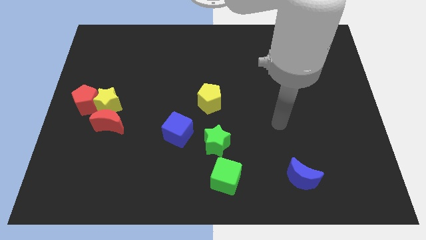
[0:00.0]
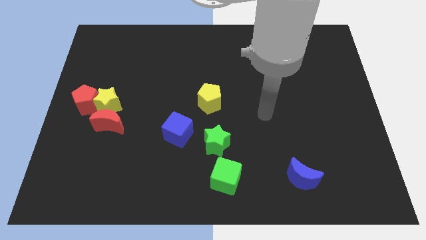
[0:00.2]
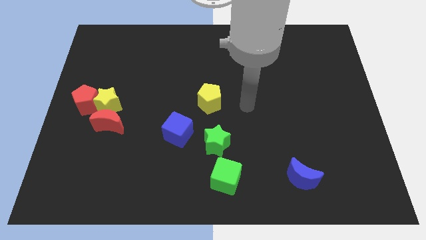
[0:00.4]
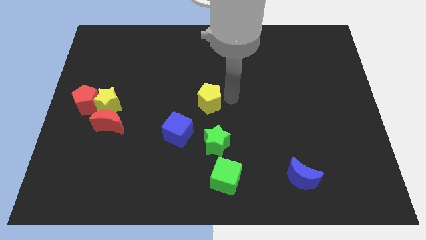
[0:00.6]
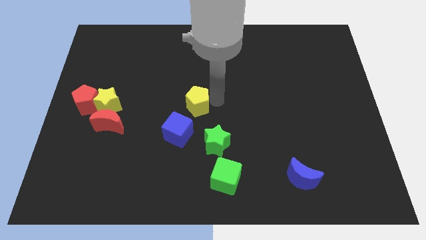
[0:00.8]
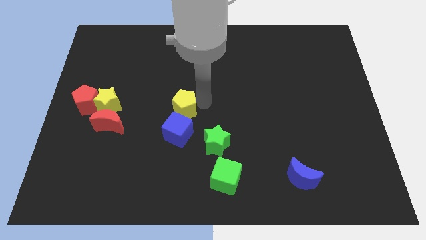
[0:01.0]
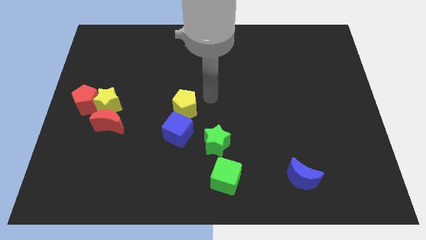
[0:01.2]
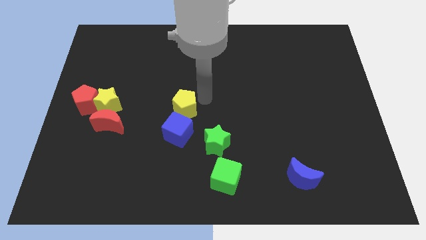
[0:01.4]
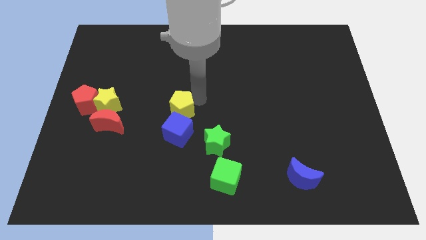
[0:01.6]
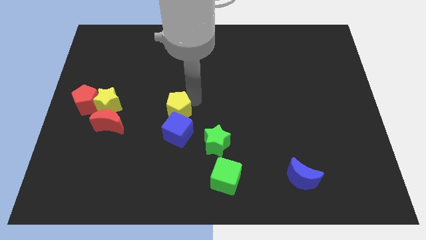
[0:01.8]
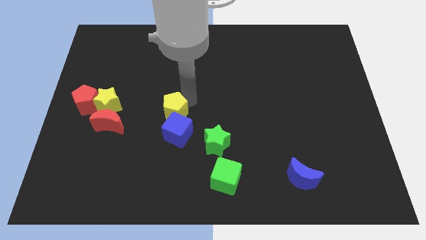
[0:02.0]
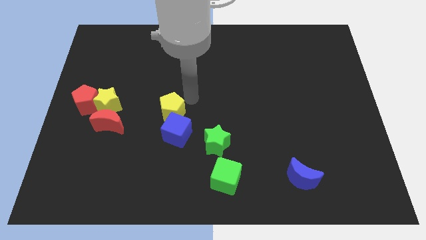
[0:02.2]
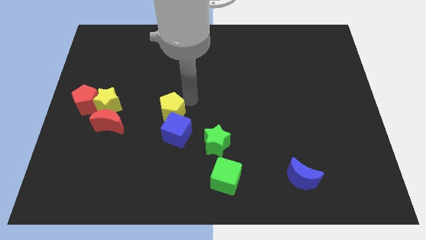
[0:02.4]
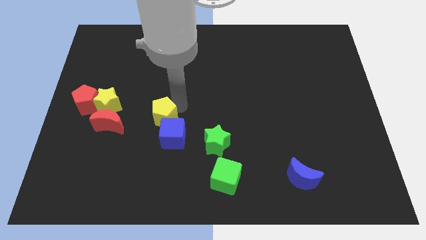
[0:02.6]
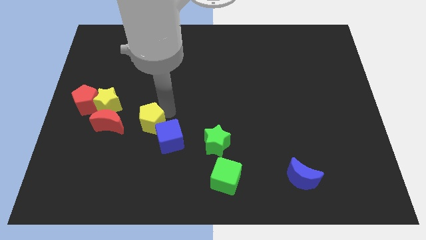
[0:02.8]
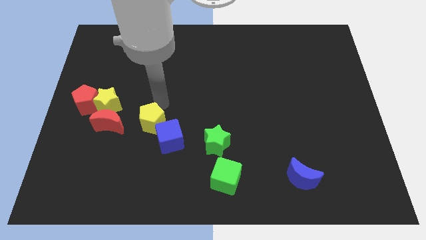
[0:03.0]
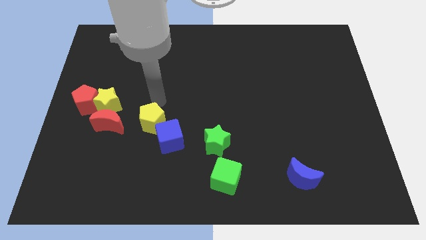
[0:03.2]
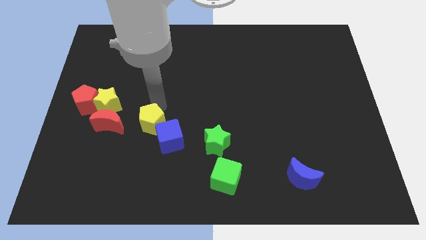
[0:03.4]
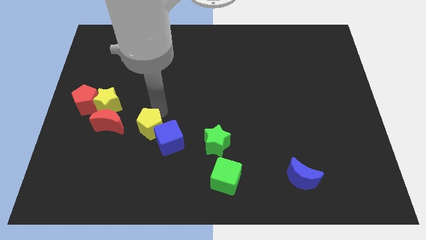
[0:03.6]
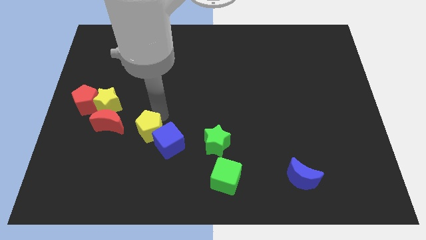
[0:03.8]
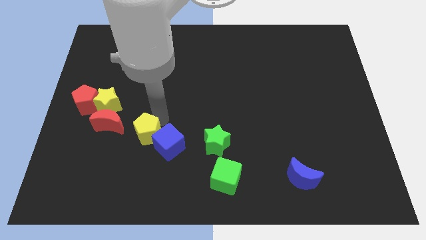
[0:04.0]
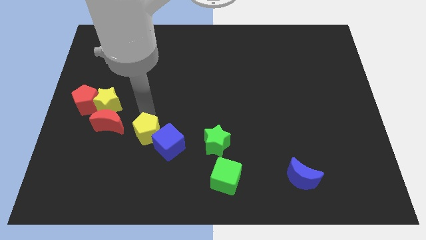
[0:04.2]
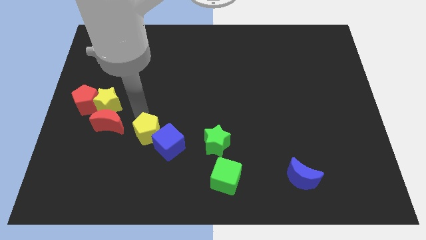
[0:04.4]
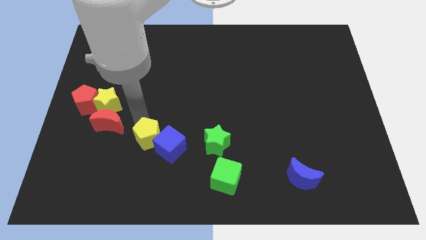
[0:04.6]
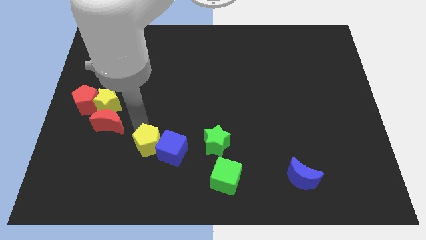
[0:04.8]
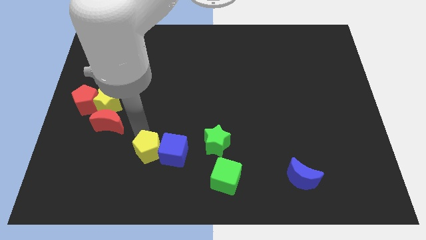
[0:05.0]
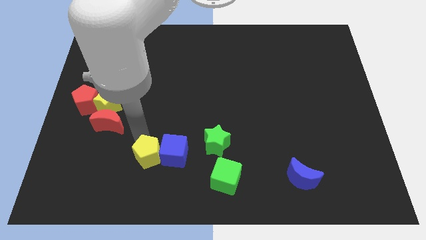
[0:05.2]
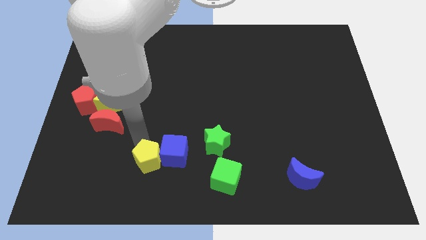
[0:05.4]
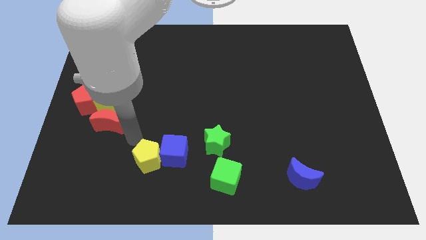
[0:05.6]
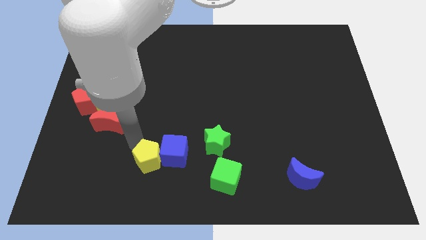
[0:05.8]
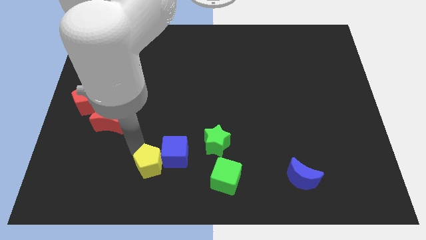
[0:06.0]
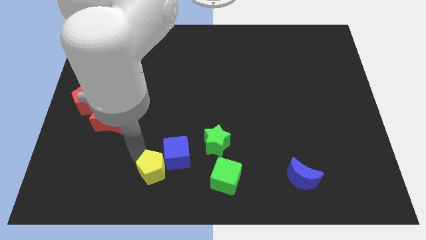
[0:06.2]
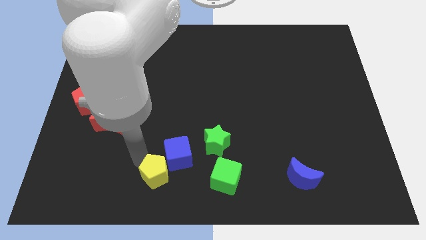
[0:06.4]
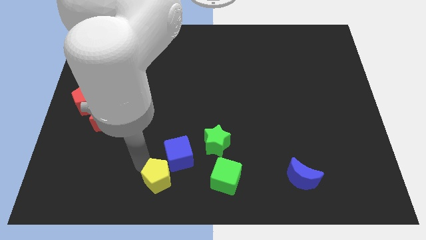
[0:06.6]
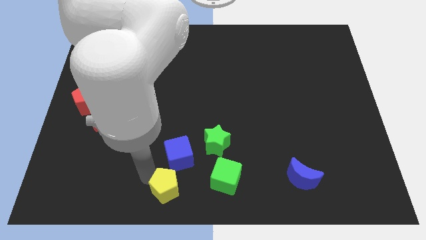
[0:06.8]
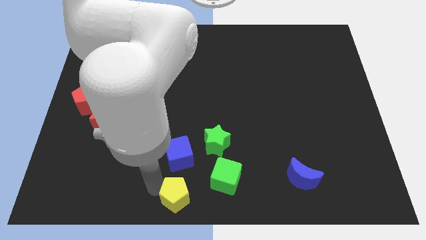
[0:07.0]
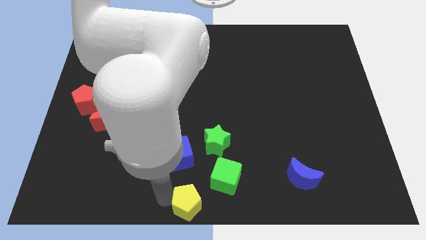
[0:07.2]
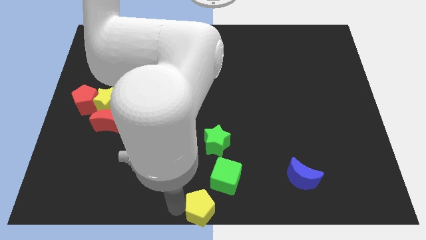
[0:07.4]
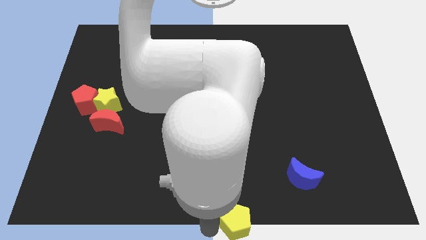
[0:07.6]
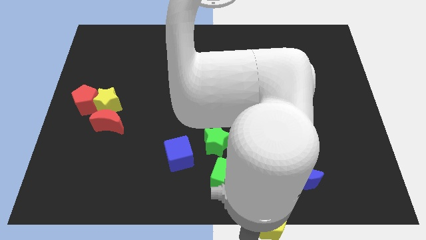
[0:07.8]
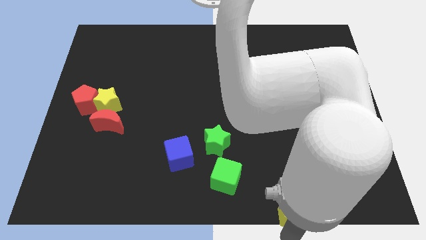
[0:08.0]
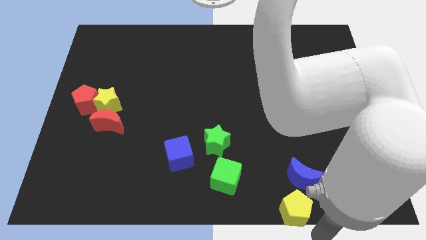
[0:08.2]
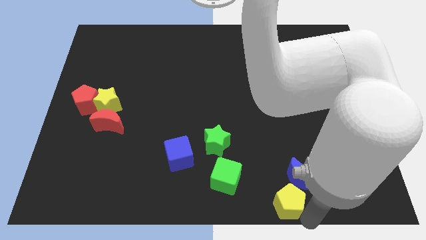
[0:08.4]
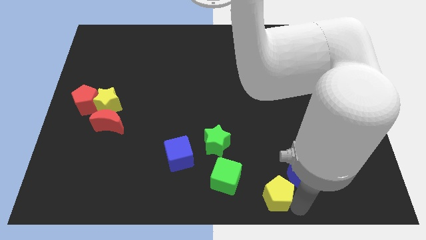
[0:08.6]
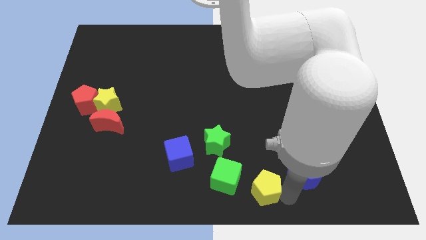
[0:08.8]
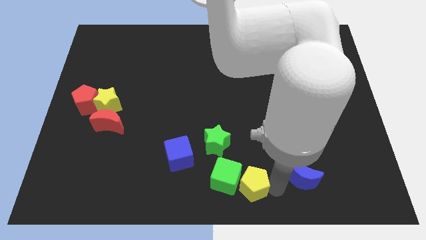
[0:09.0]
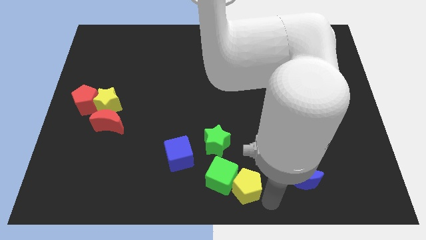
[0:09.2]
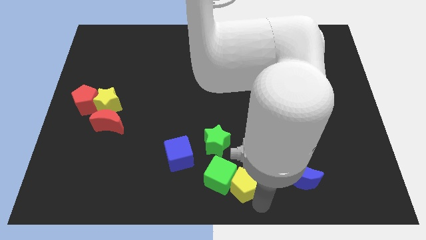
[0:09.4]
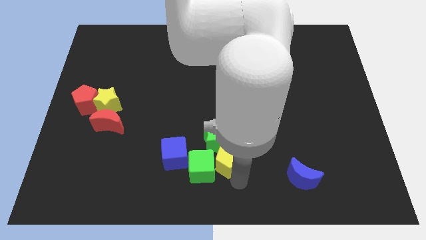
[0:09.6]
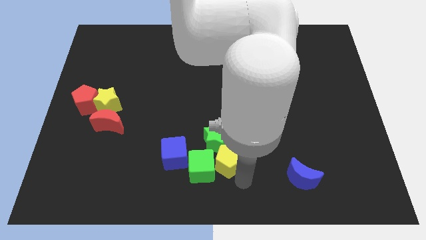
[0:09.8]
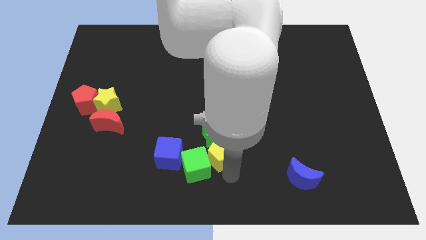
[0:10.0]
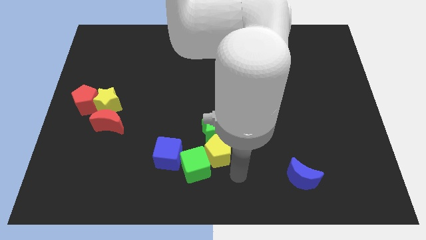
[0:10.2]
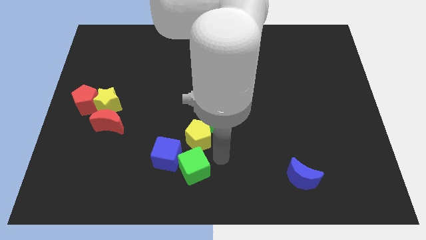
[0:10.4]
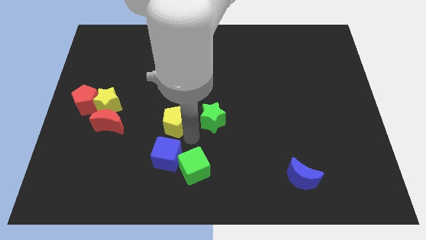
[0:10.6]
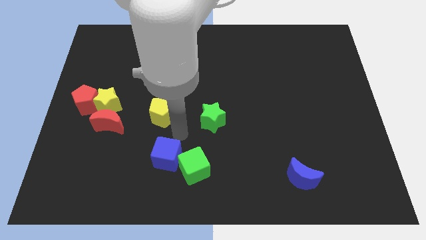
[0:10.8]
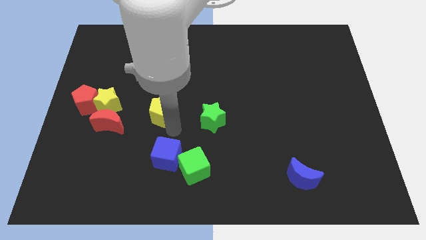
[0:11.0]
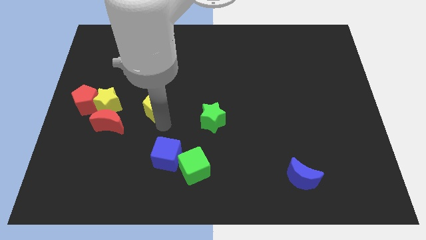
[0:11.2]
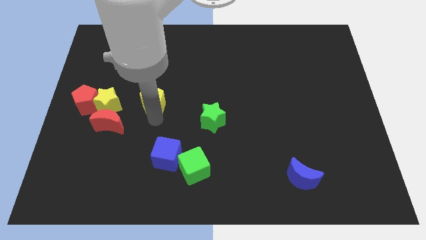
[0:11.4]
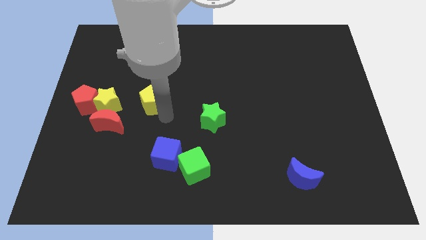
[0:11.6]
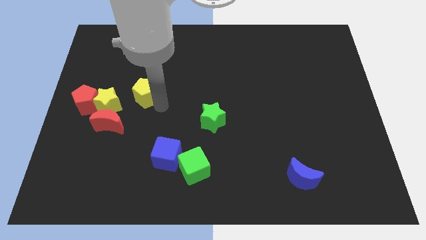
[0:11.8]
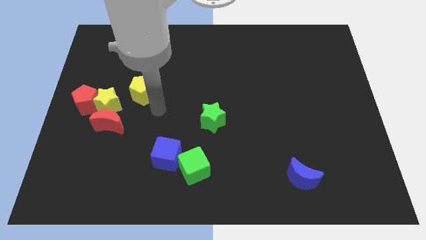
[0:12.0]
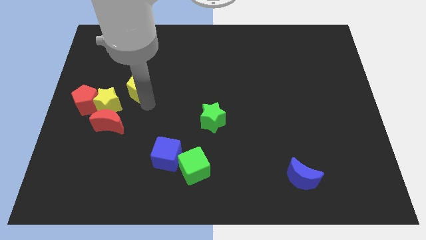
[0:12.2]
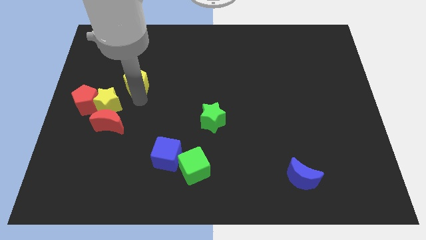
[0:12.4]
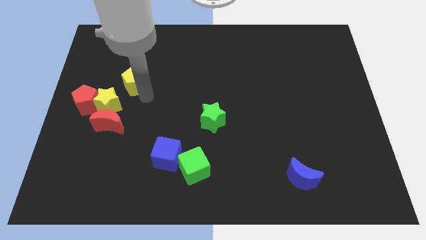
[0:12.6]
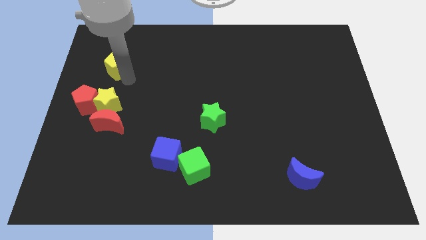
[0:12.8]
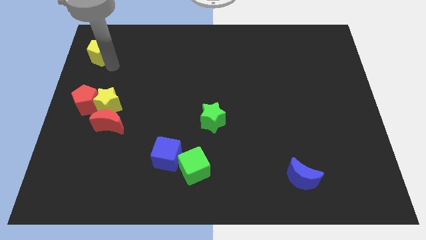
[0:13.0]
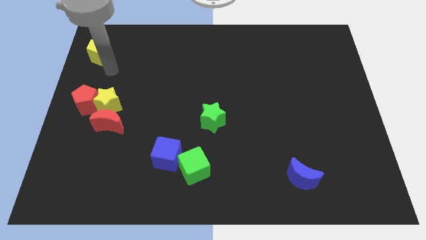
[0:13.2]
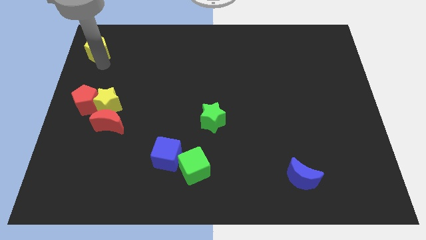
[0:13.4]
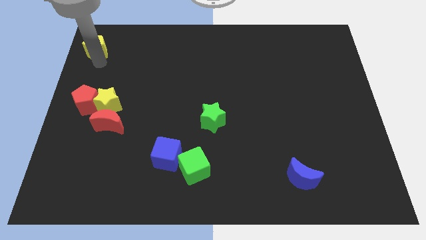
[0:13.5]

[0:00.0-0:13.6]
push the yellow pentagon to the top left corner

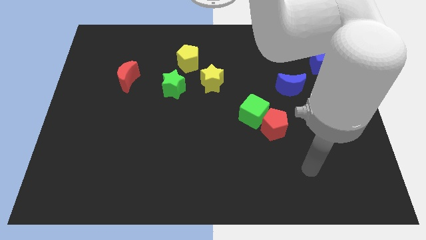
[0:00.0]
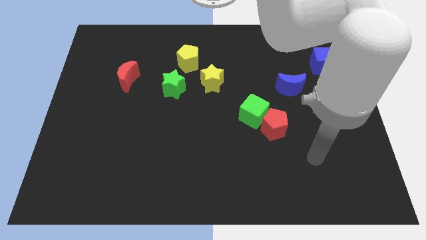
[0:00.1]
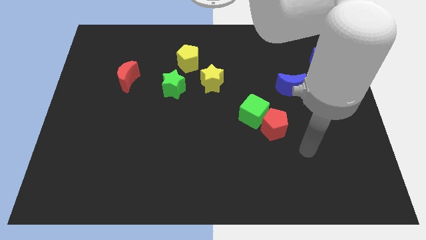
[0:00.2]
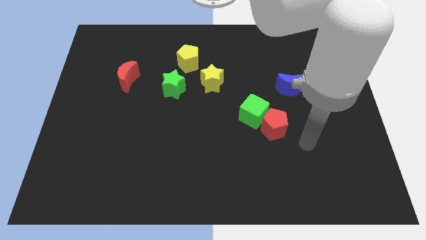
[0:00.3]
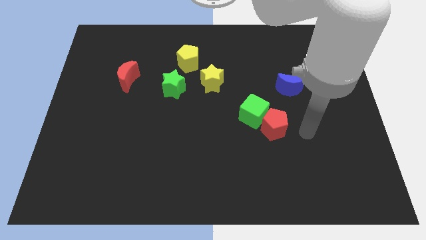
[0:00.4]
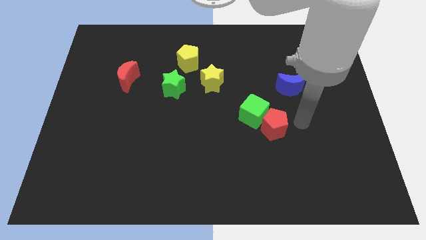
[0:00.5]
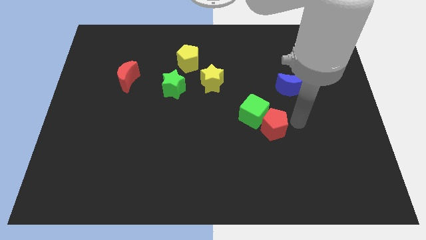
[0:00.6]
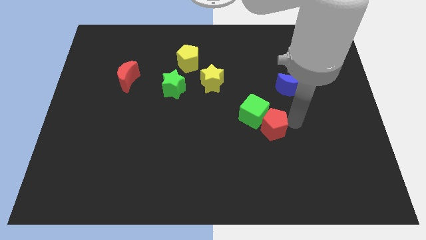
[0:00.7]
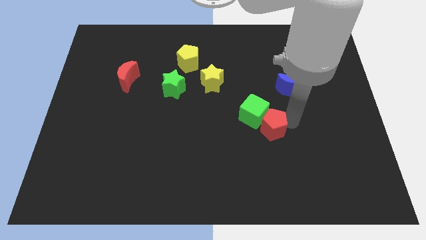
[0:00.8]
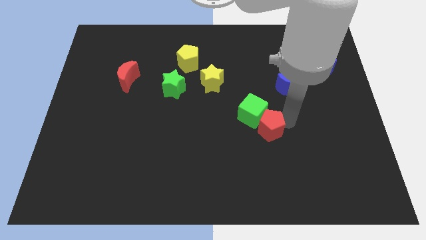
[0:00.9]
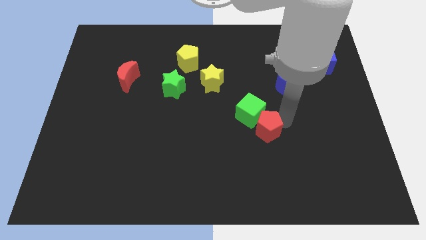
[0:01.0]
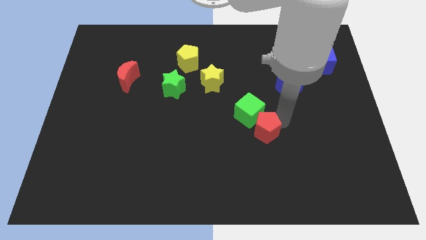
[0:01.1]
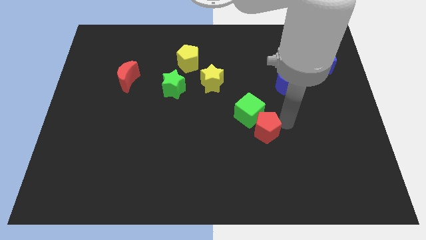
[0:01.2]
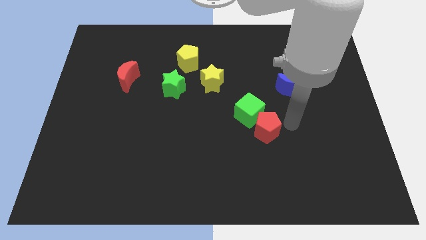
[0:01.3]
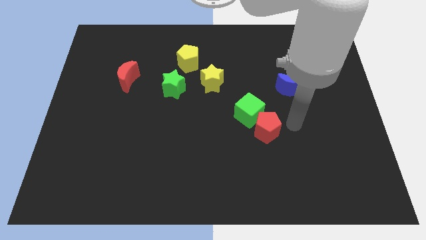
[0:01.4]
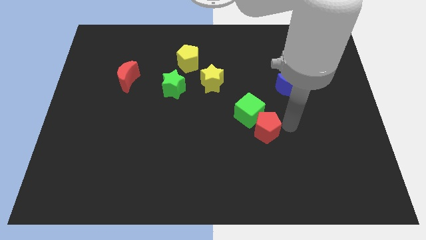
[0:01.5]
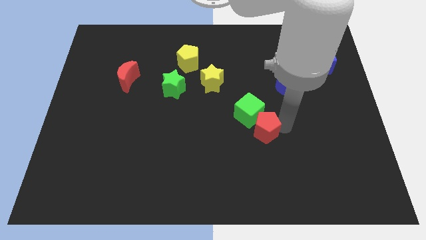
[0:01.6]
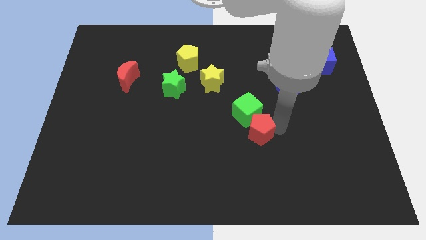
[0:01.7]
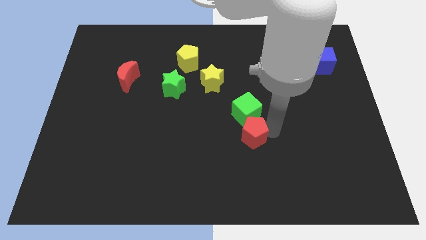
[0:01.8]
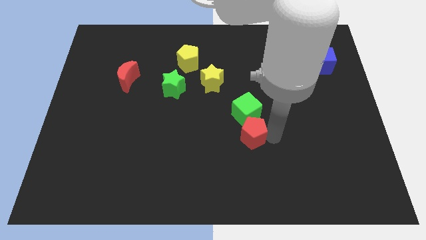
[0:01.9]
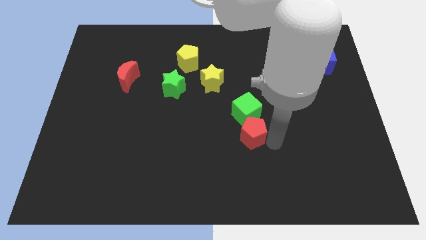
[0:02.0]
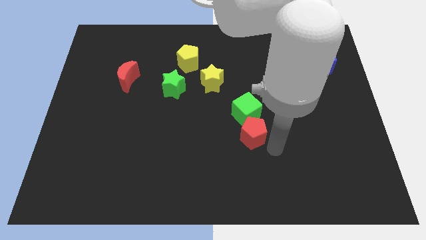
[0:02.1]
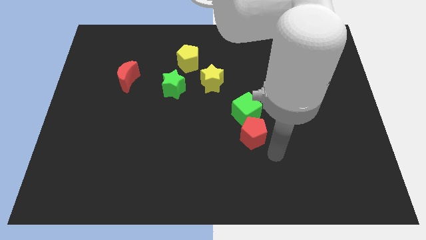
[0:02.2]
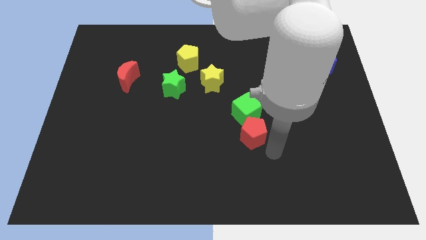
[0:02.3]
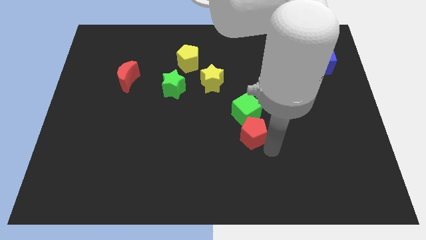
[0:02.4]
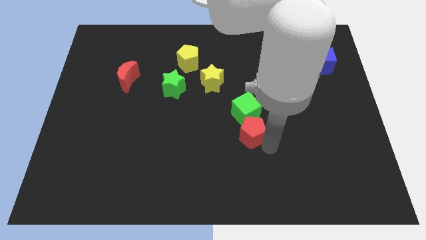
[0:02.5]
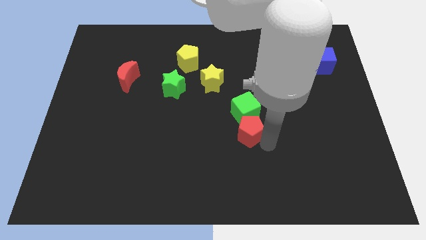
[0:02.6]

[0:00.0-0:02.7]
move the red pentagon to the middle of the board
